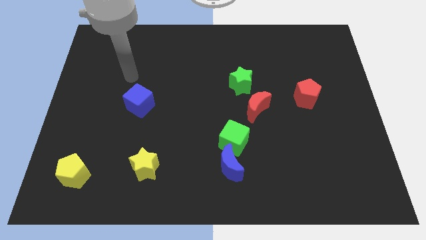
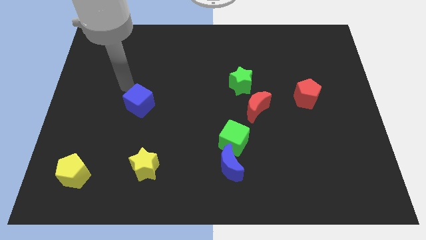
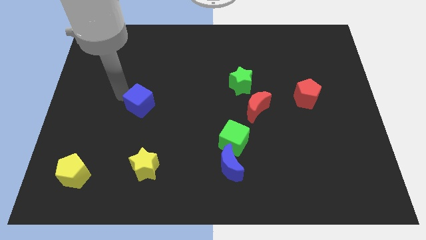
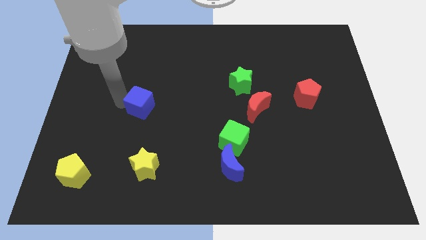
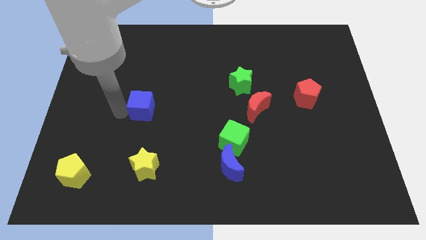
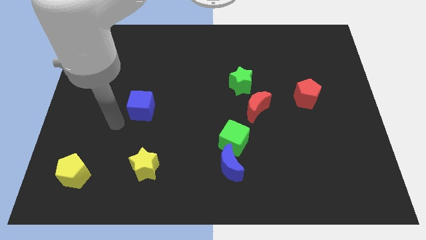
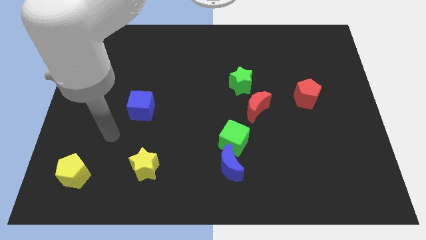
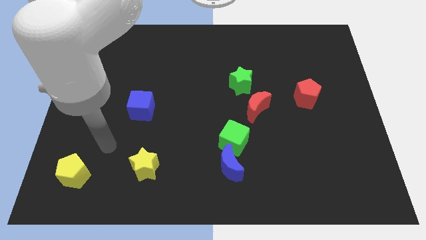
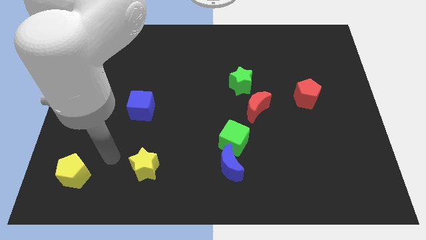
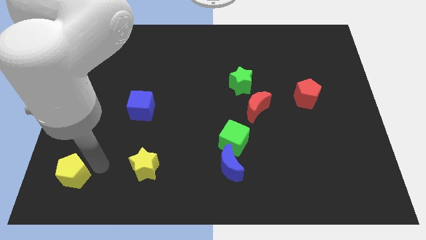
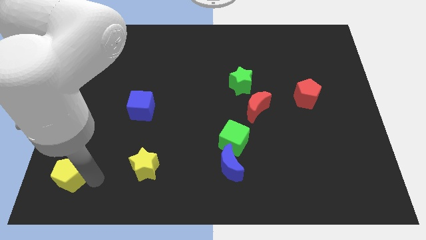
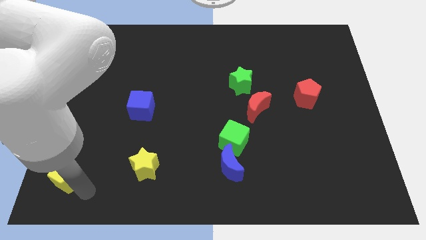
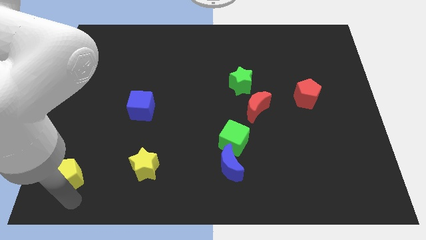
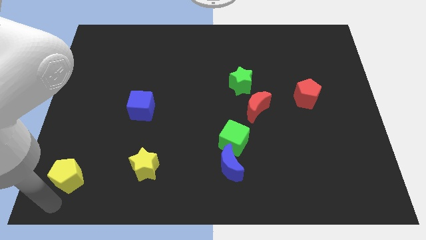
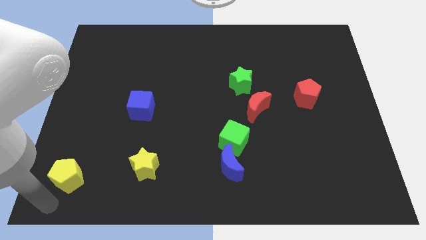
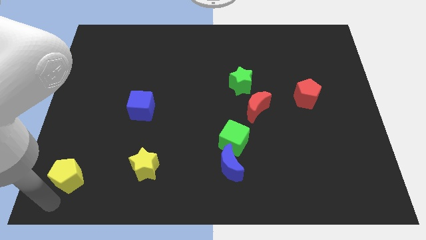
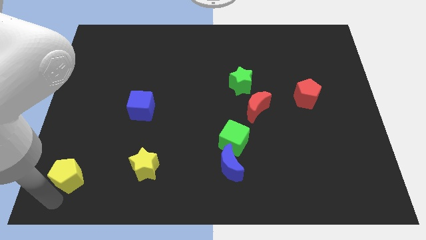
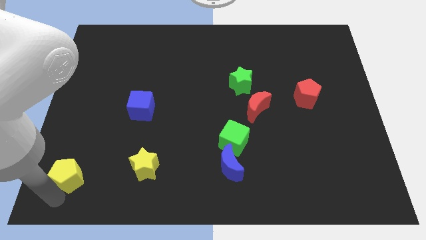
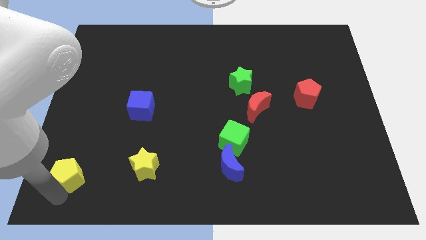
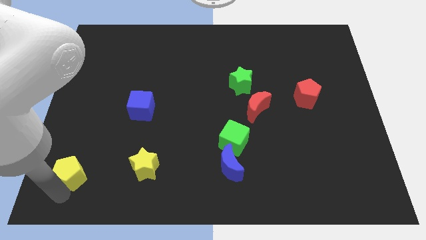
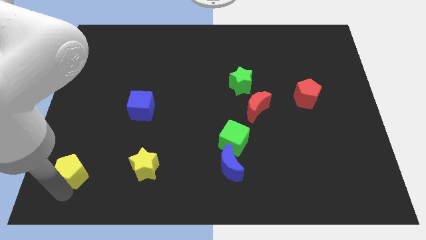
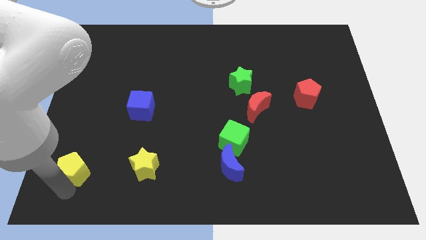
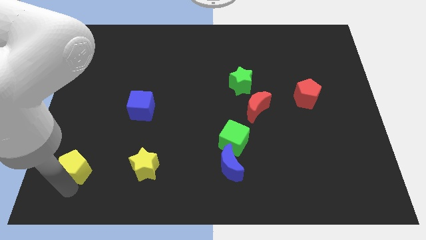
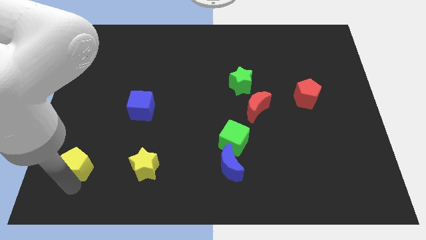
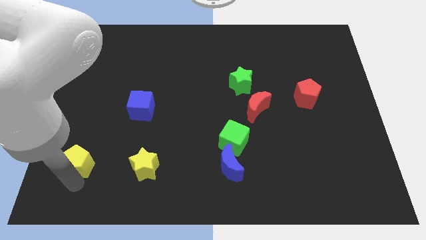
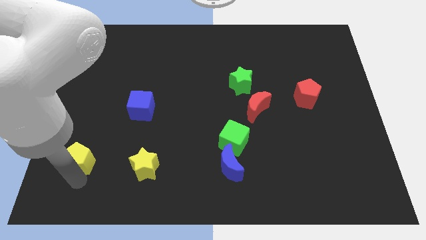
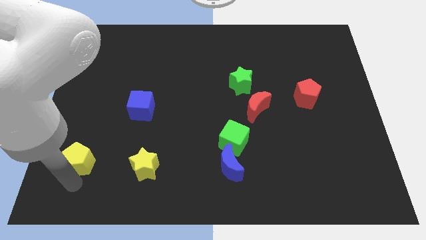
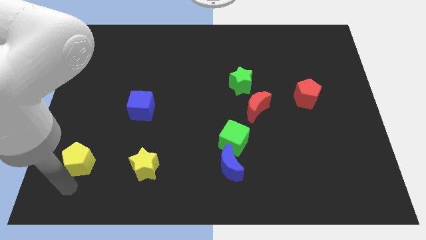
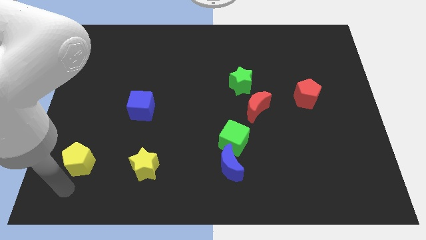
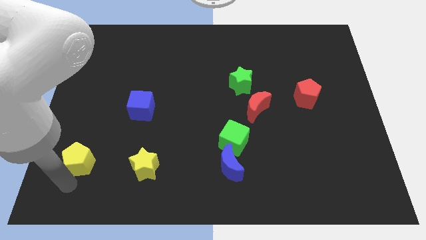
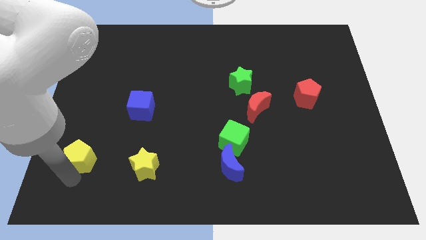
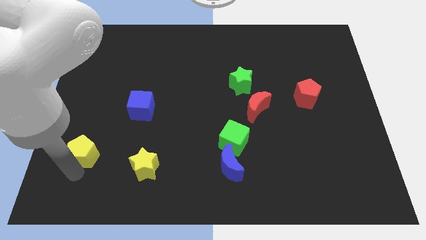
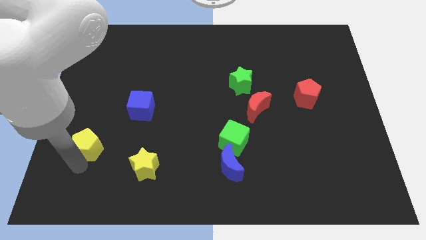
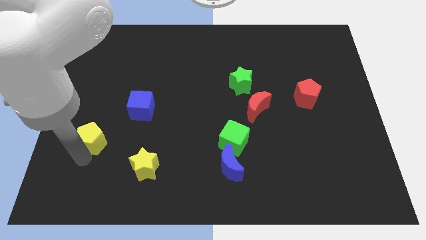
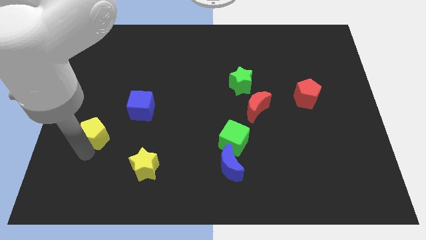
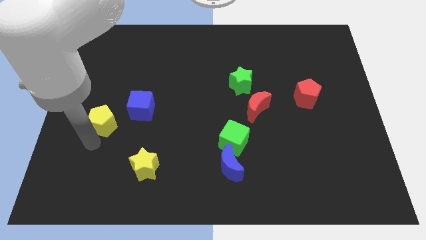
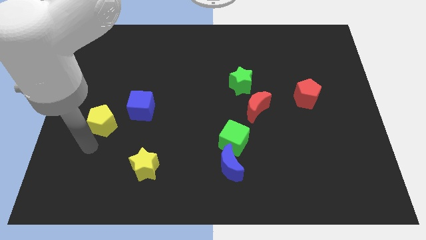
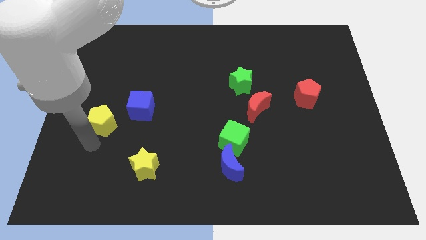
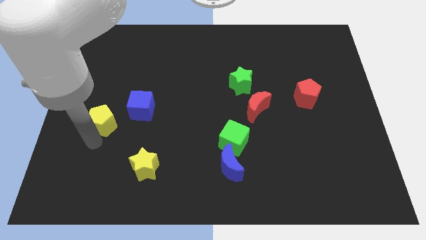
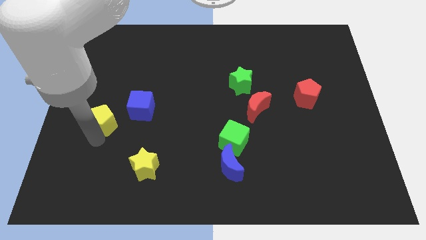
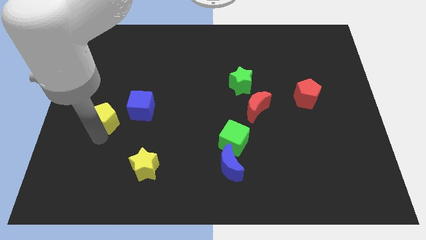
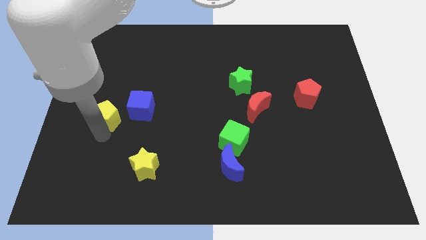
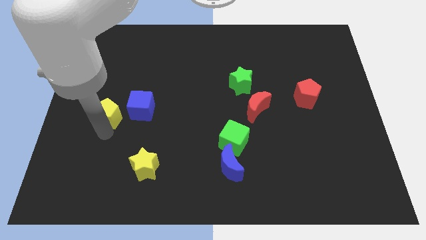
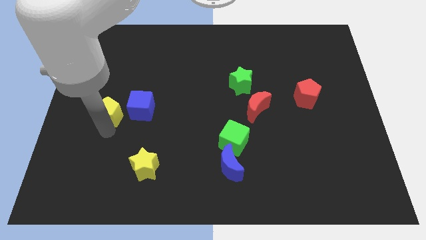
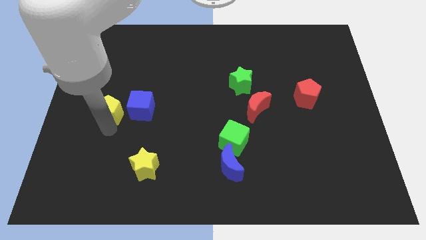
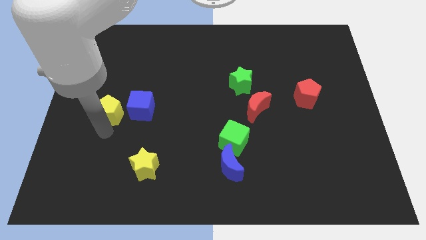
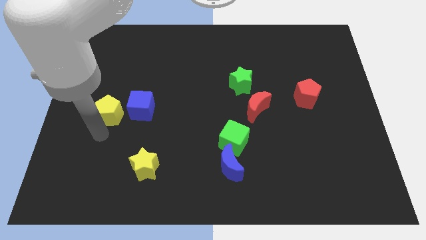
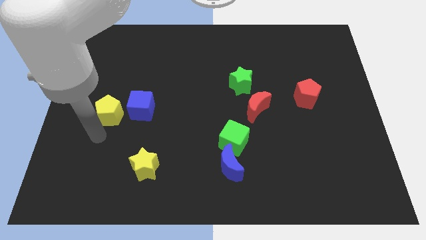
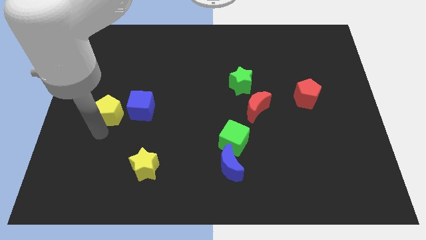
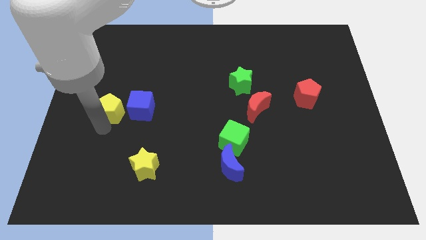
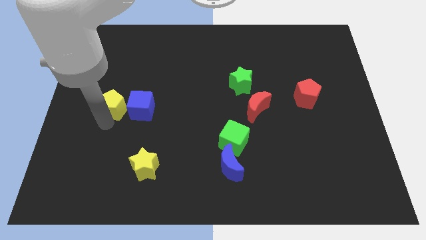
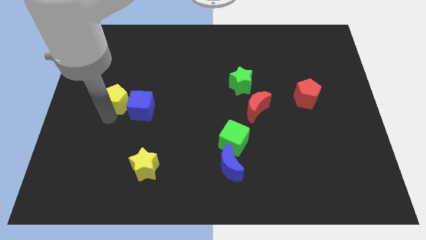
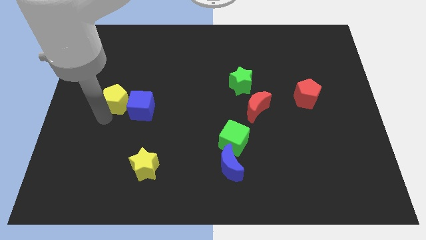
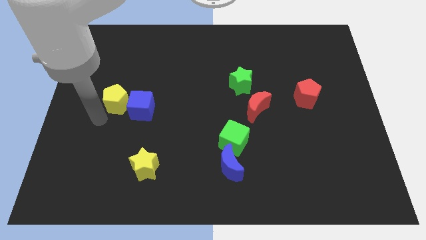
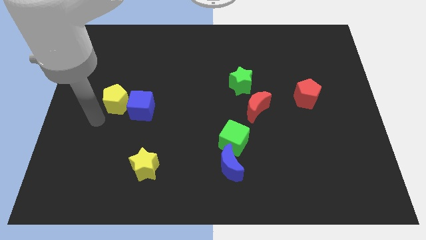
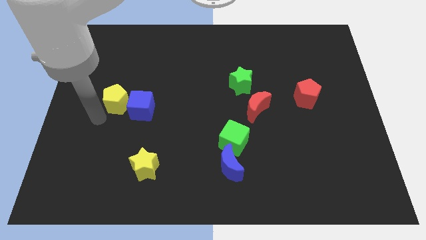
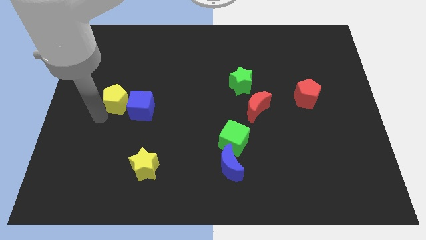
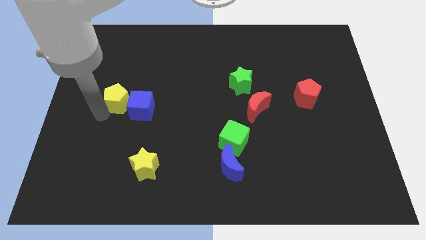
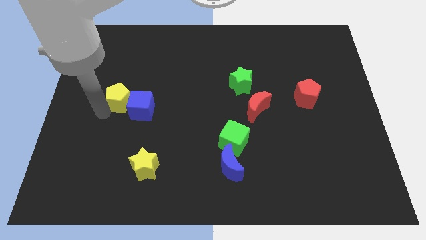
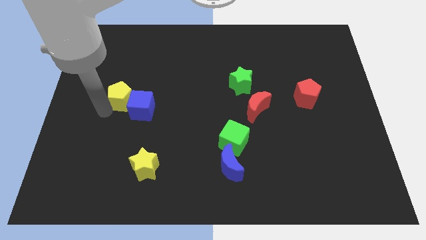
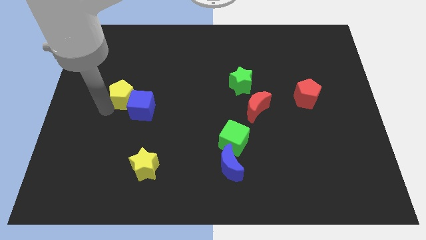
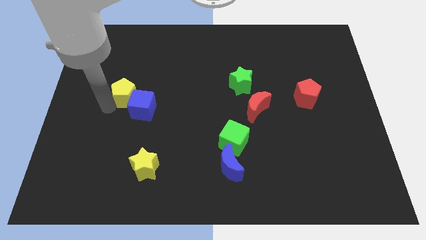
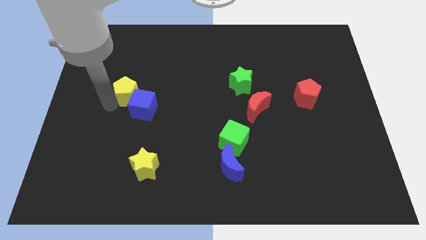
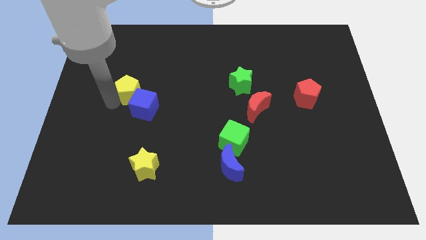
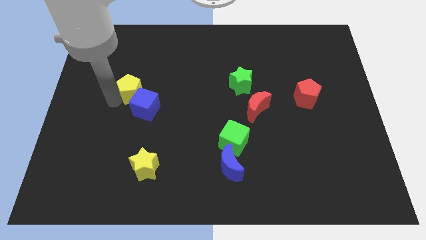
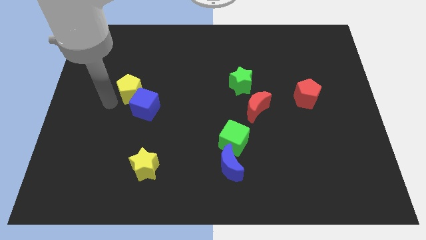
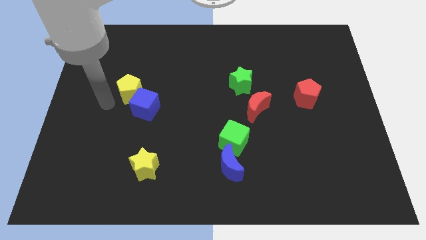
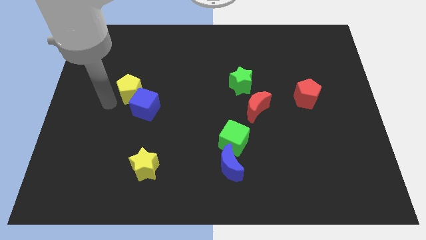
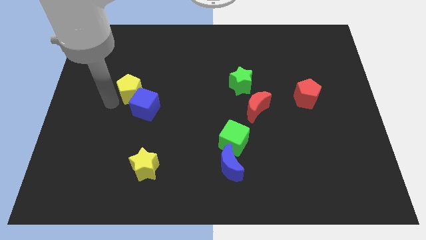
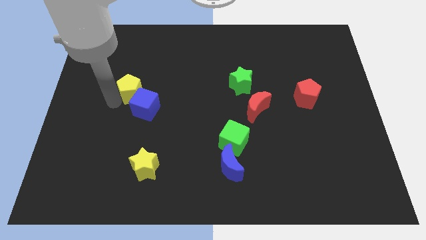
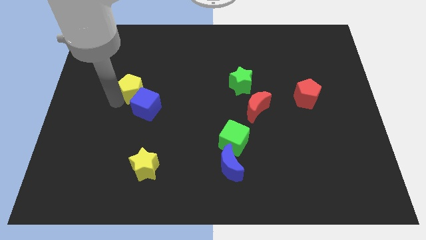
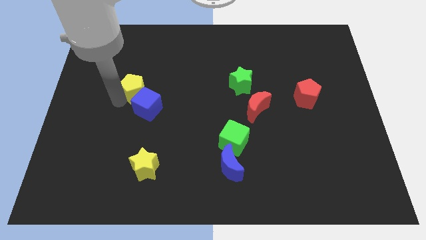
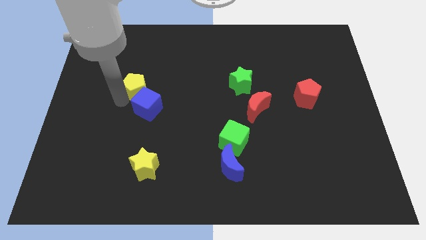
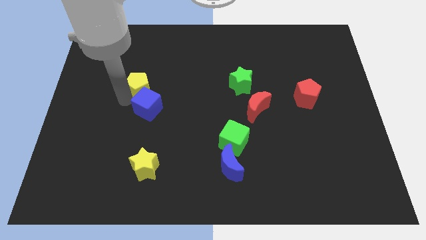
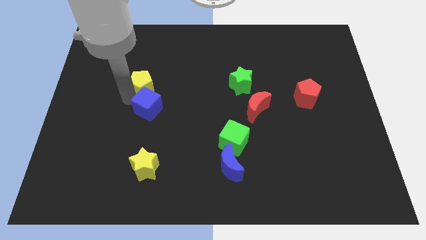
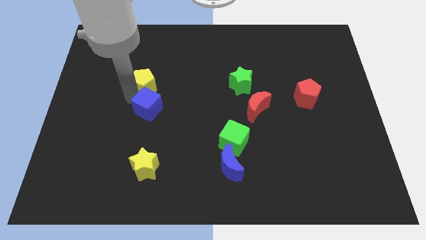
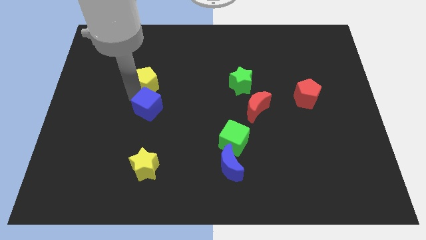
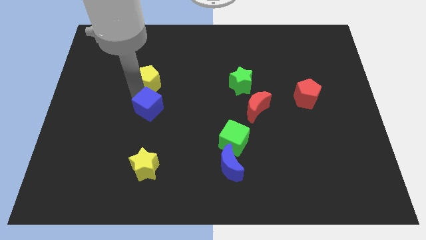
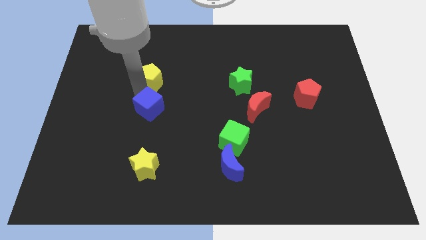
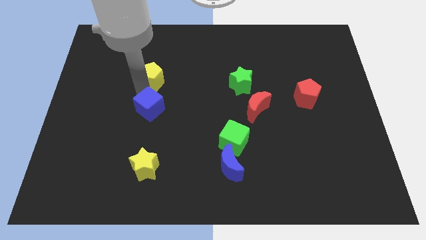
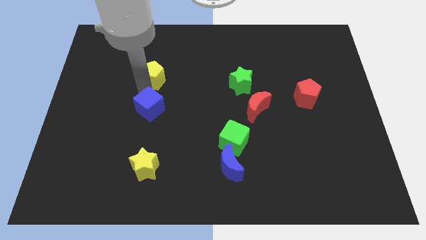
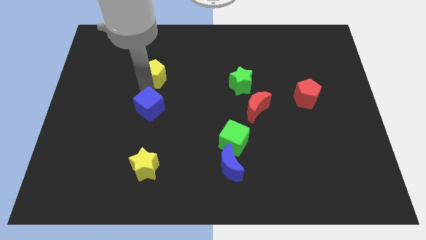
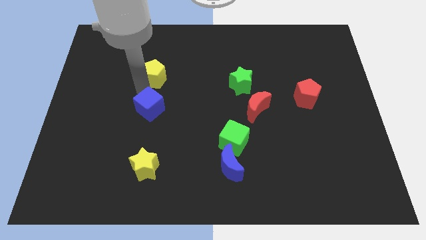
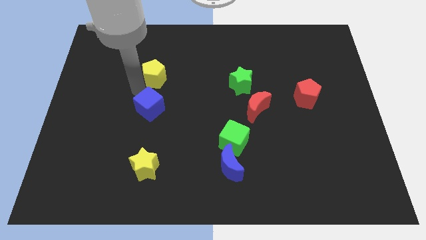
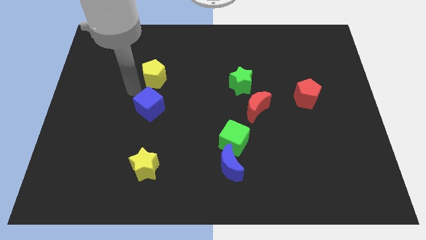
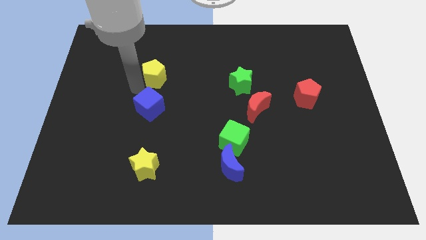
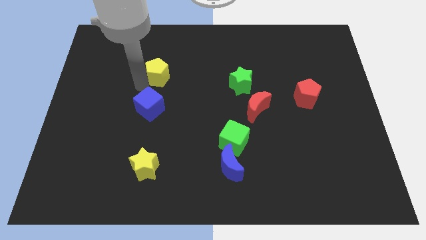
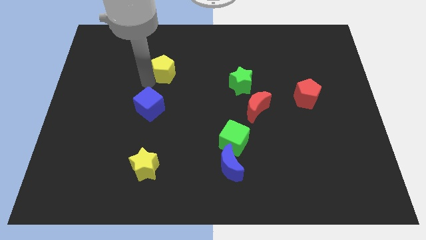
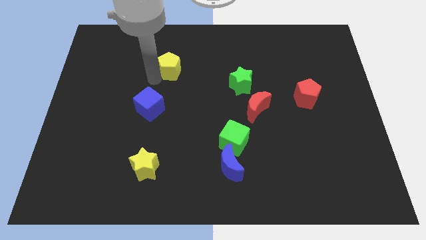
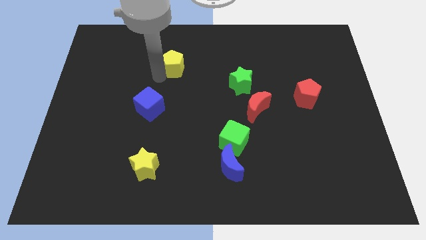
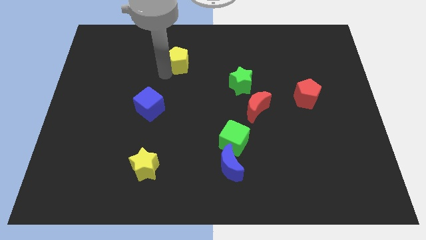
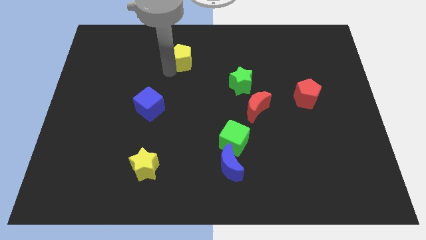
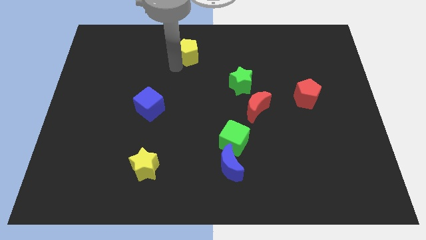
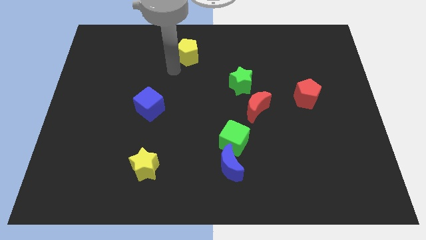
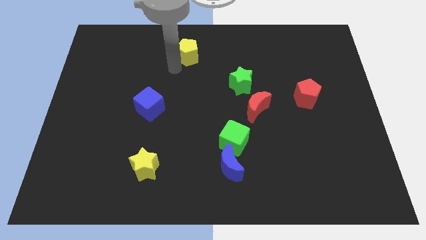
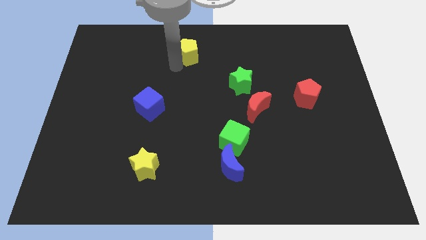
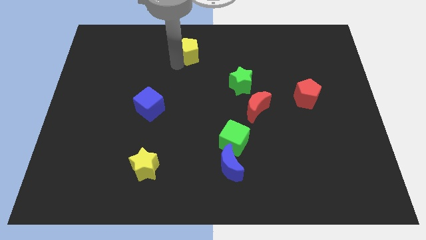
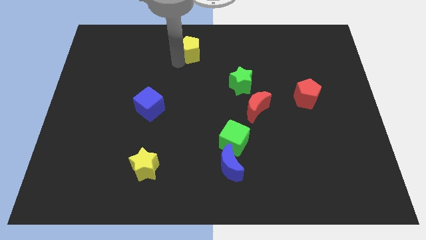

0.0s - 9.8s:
put the yellow pentagon to the top
